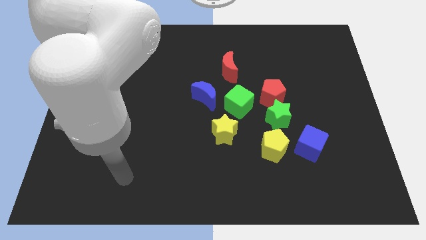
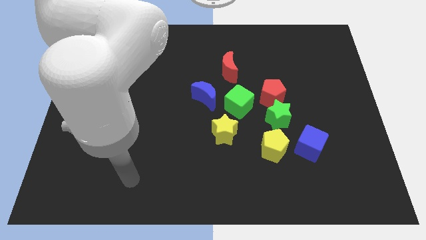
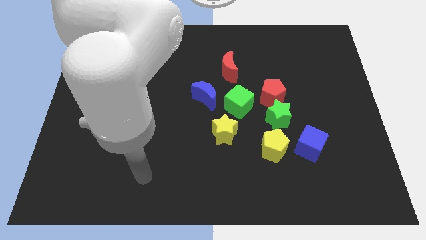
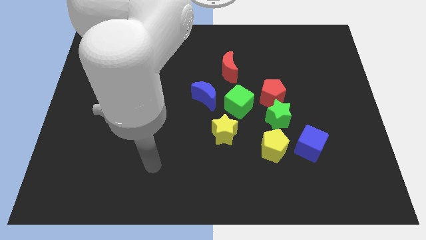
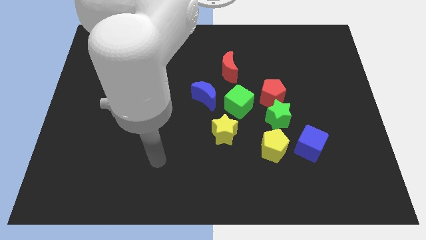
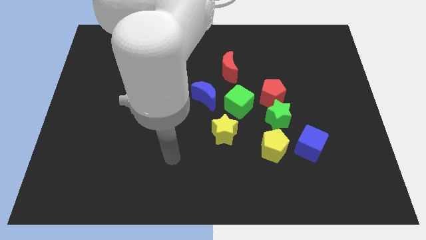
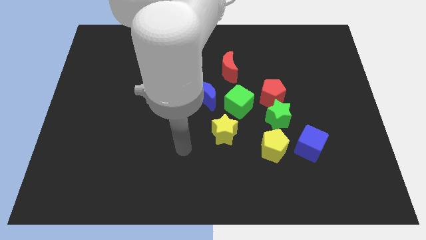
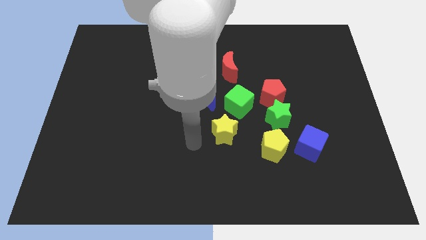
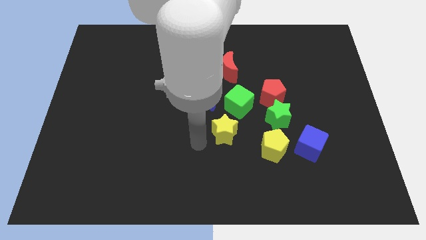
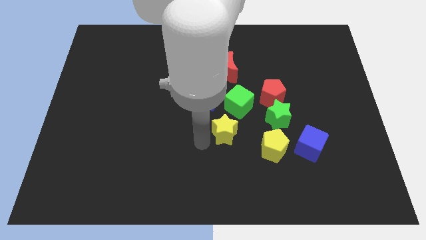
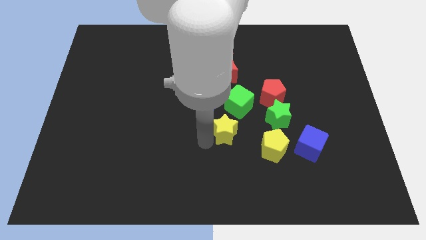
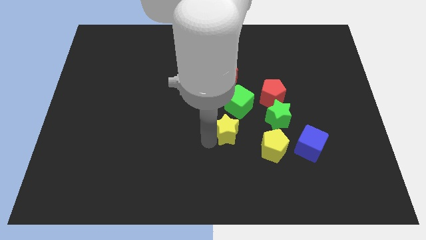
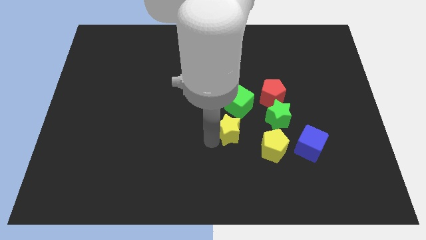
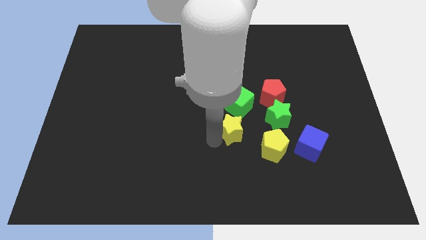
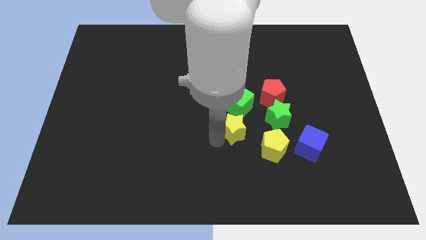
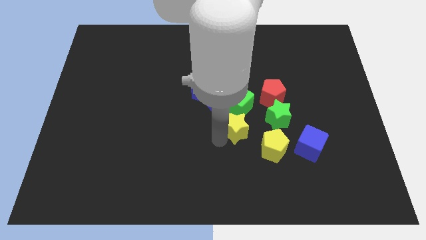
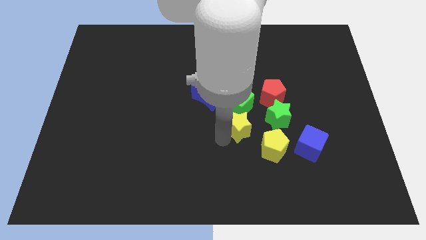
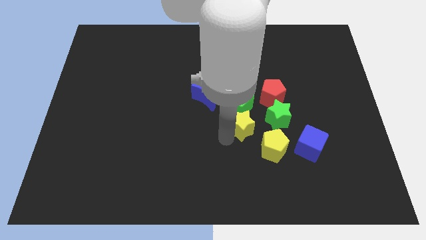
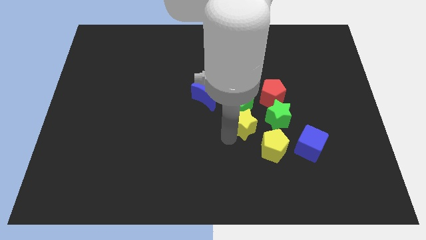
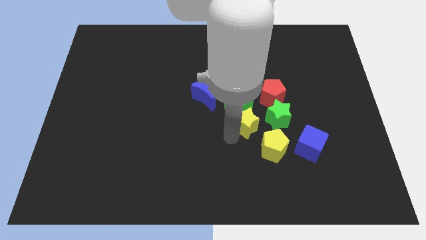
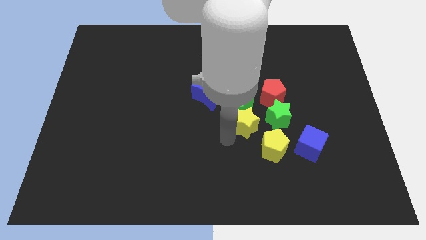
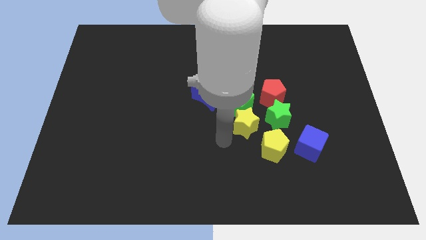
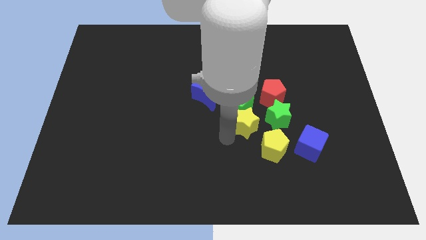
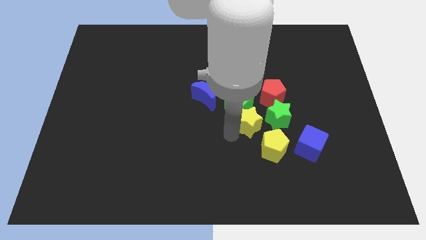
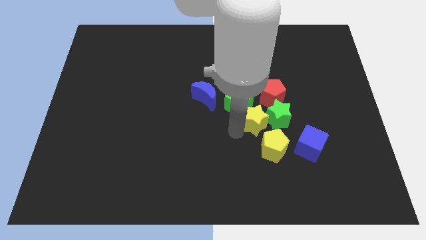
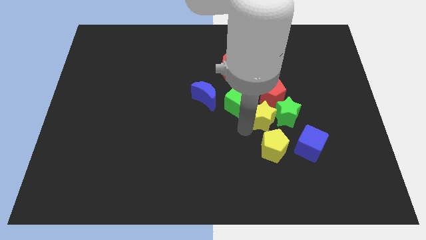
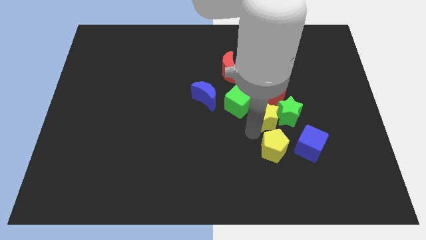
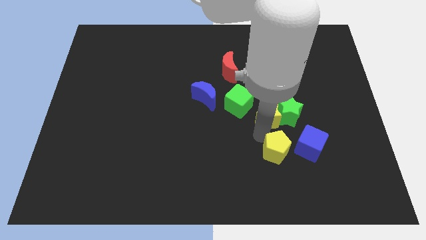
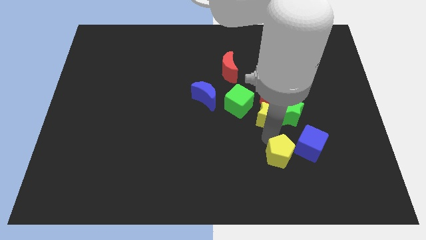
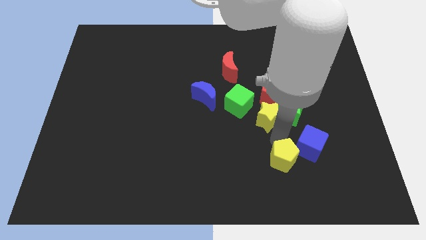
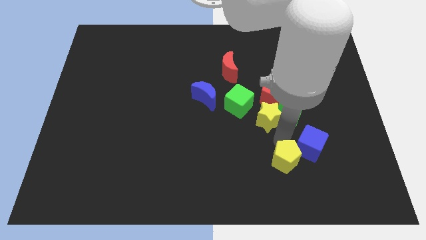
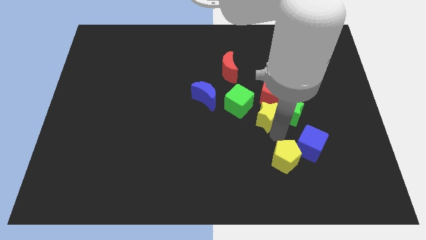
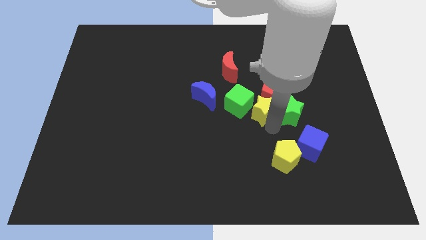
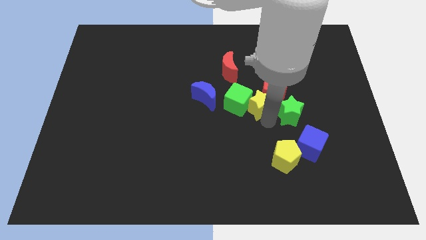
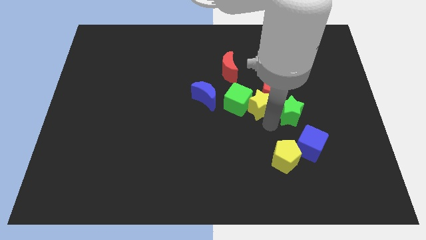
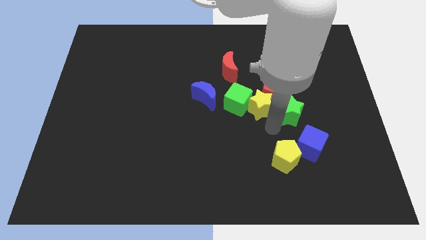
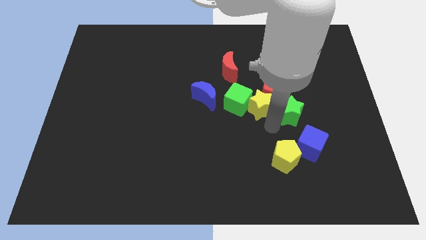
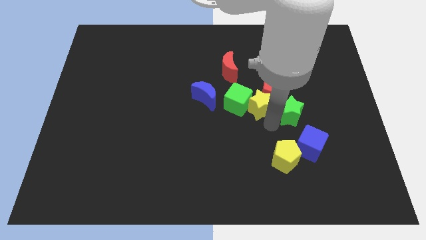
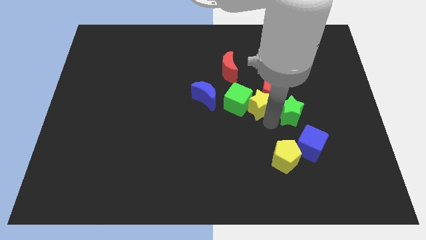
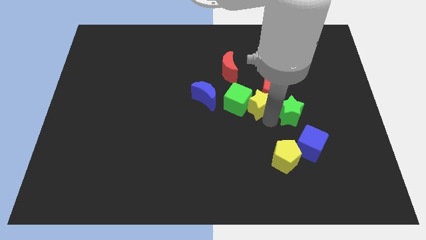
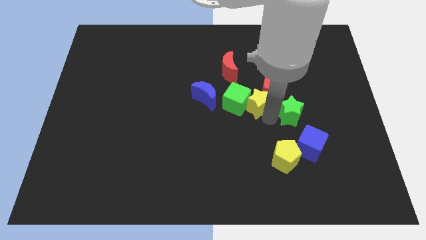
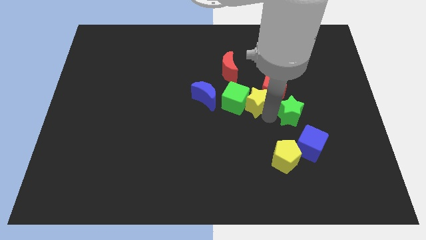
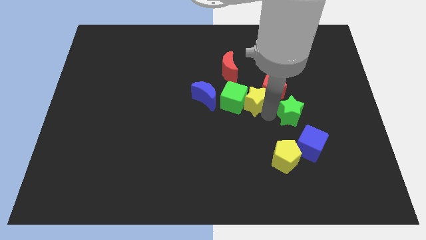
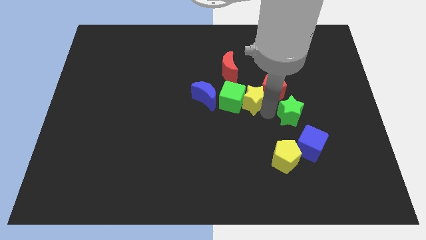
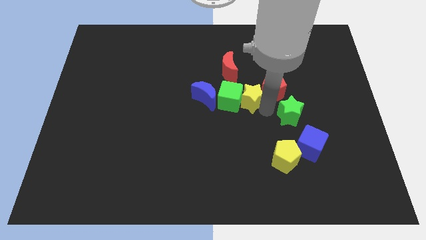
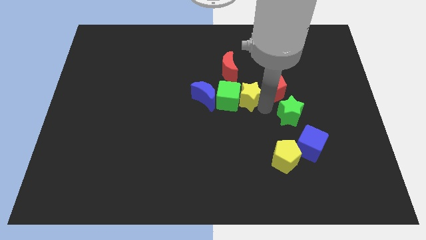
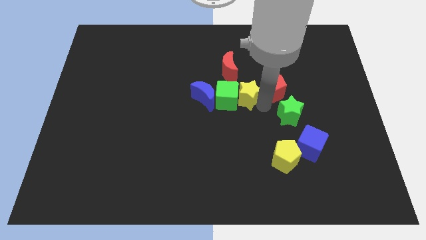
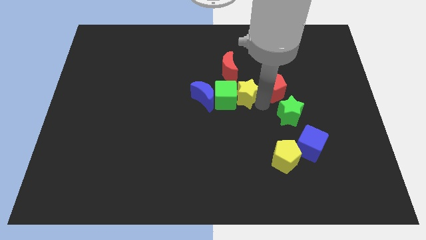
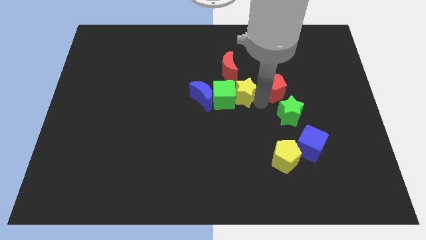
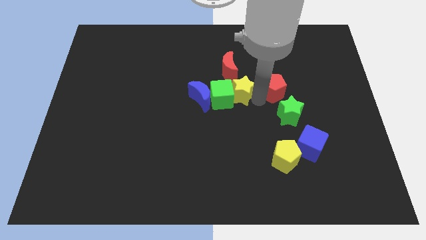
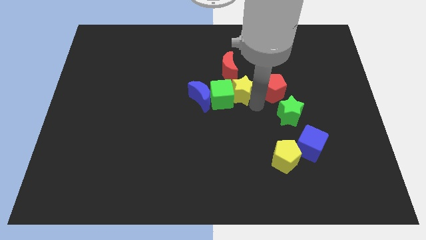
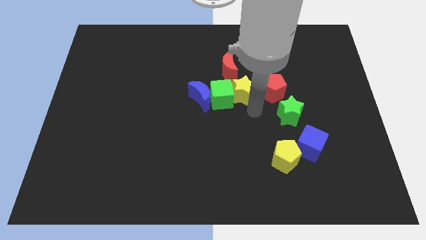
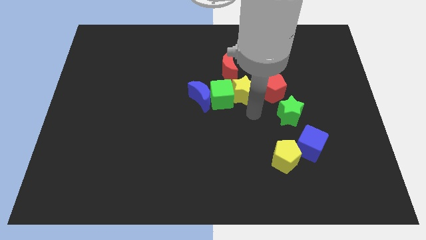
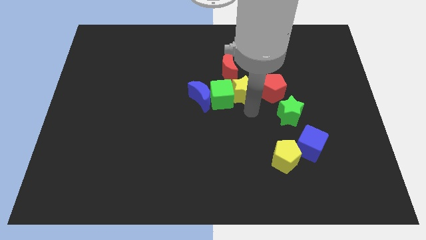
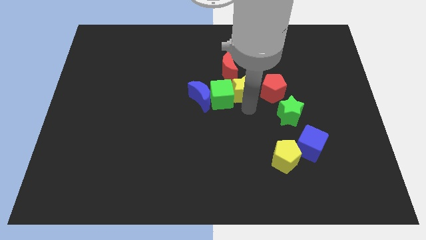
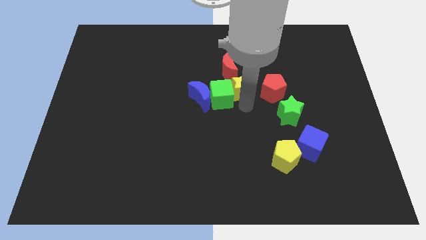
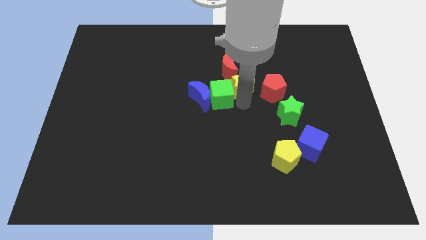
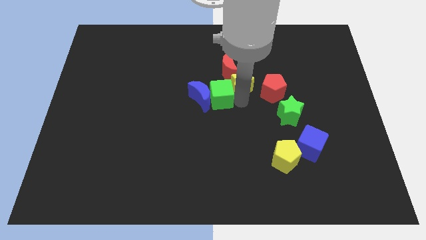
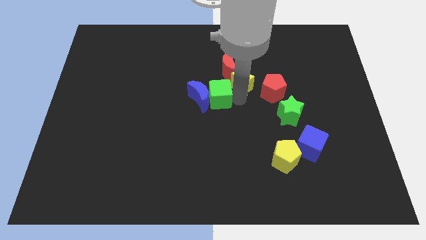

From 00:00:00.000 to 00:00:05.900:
push the yellow star towards the red moon

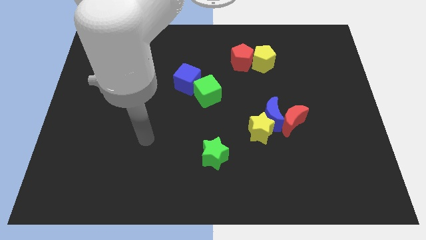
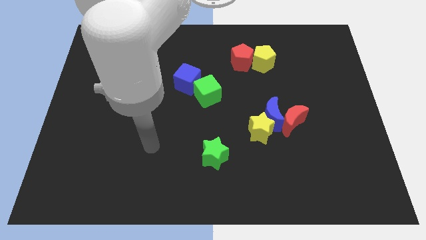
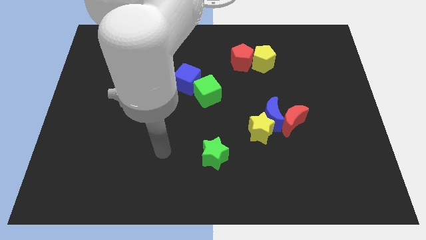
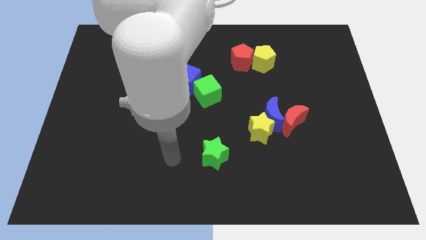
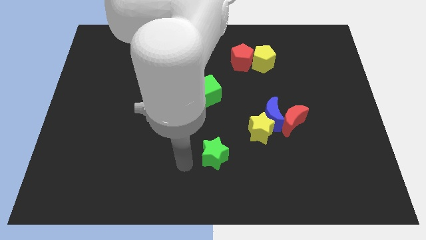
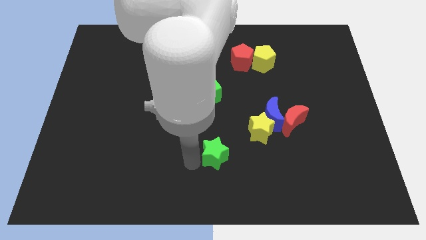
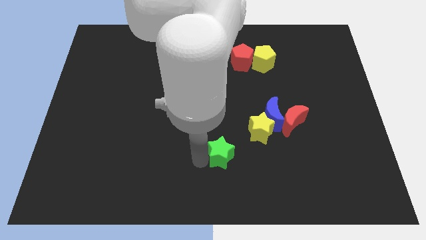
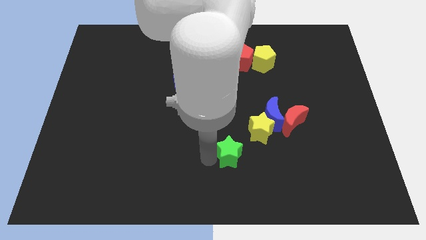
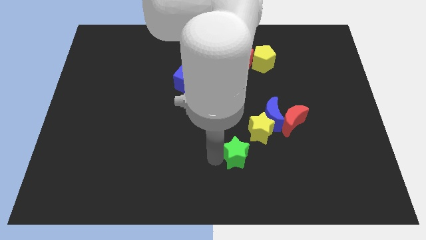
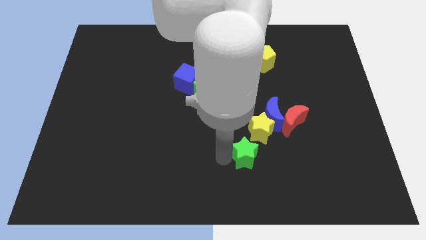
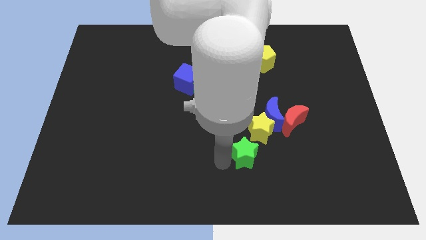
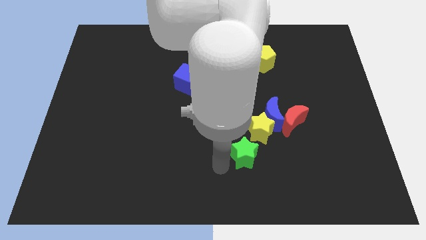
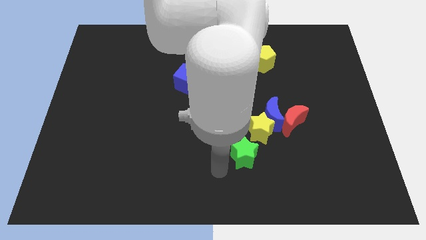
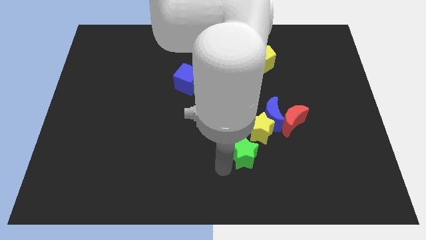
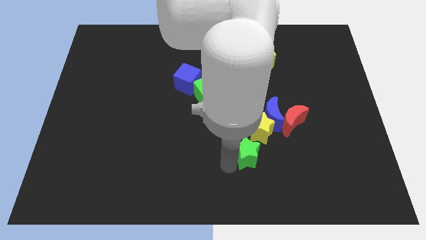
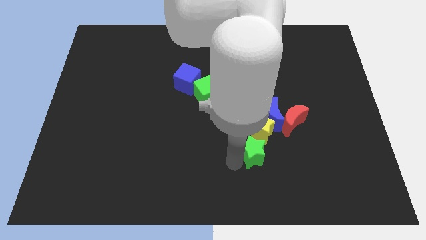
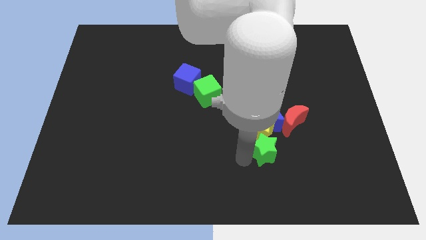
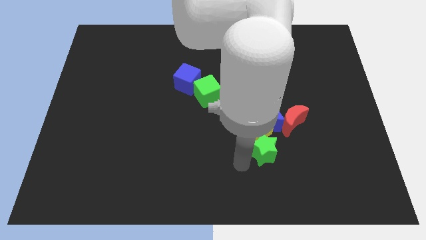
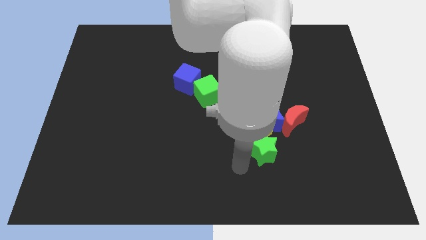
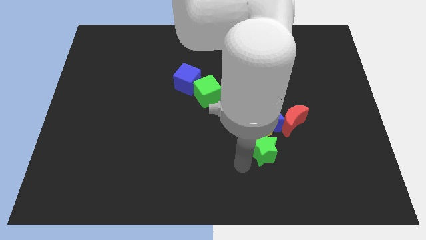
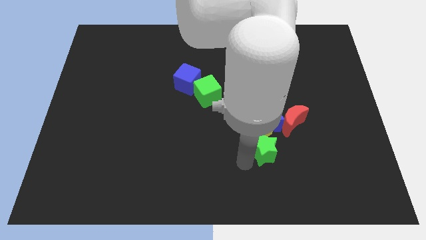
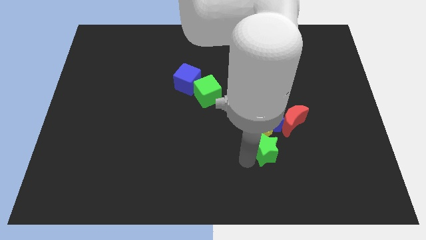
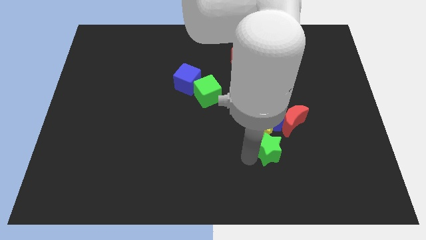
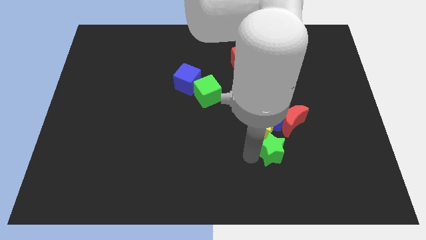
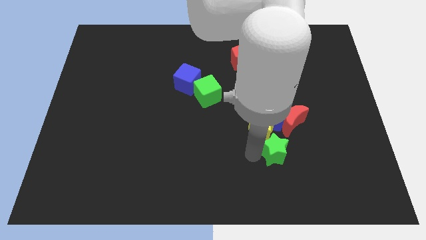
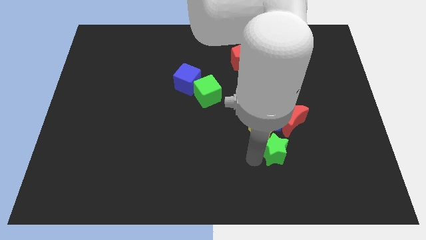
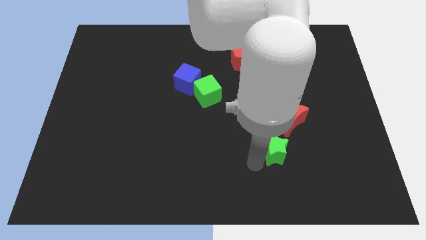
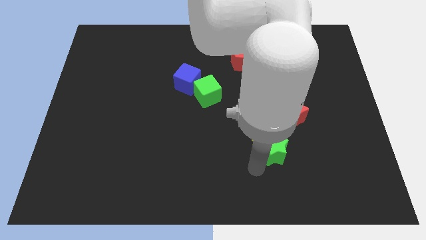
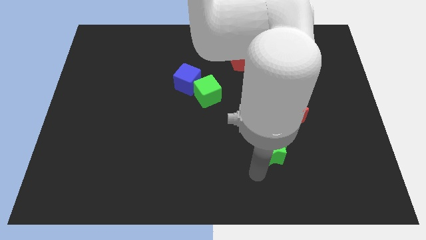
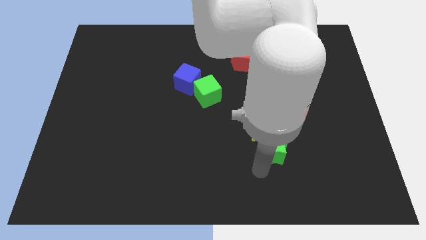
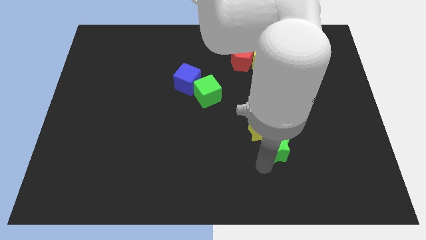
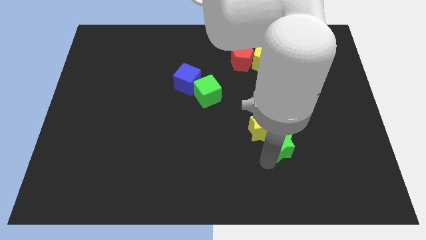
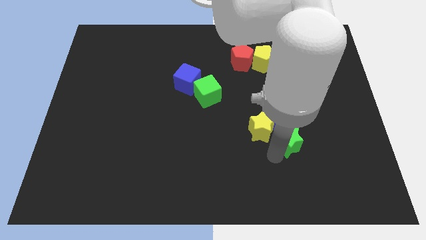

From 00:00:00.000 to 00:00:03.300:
move the green star to the red moon
